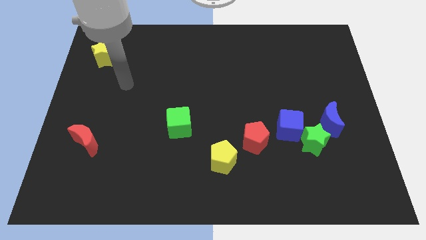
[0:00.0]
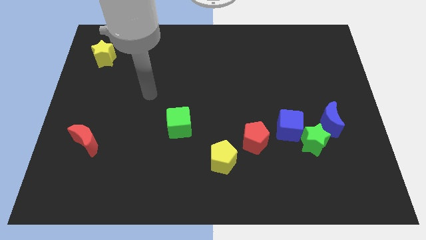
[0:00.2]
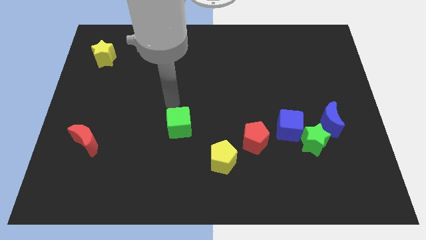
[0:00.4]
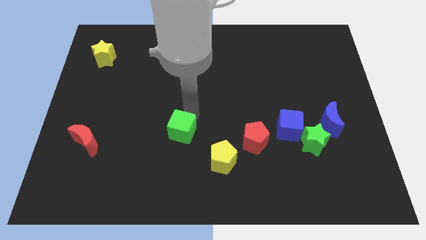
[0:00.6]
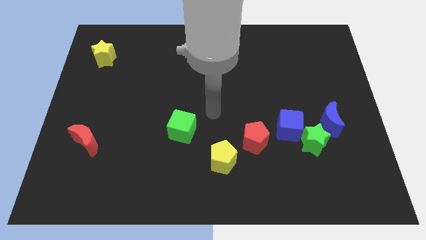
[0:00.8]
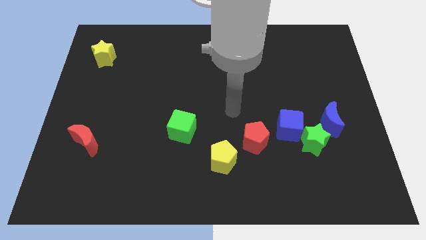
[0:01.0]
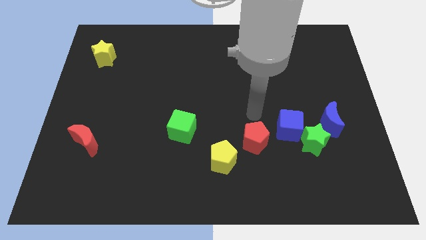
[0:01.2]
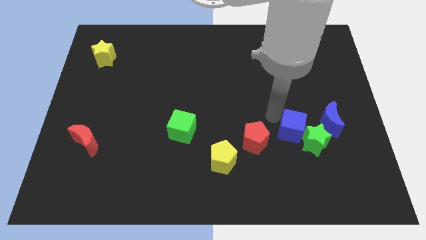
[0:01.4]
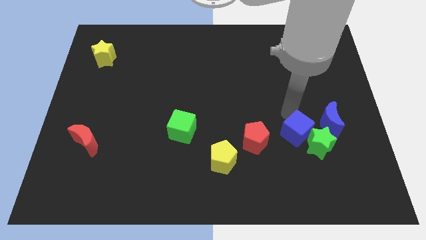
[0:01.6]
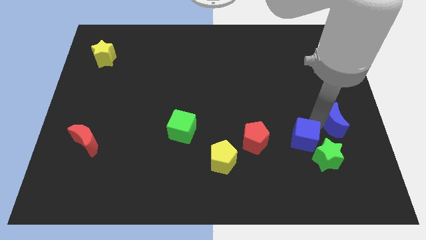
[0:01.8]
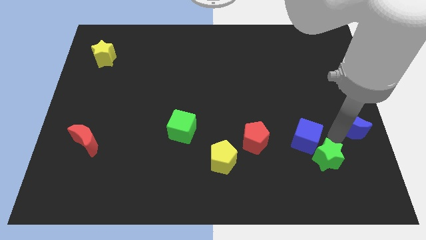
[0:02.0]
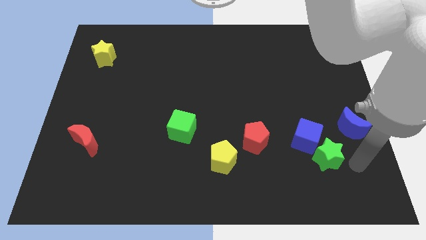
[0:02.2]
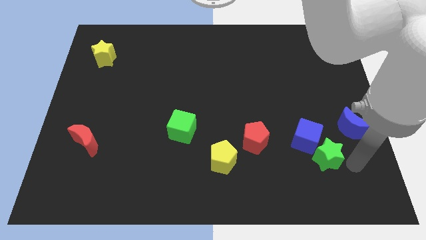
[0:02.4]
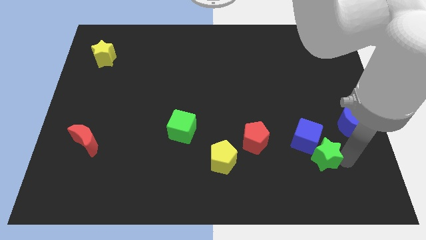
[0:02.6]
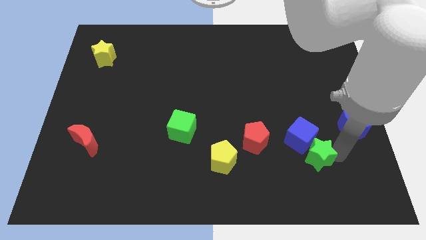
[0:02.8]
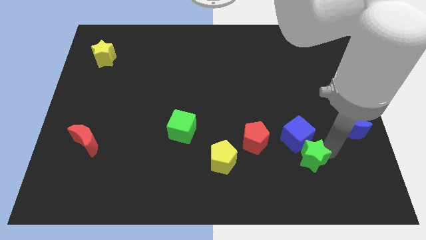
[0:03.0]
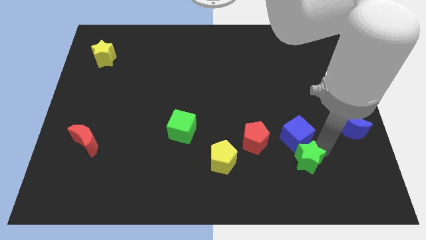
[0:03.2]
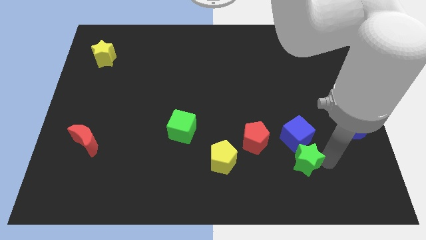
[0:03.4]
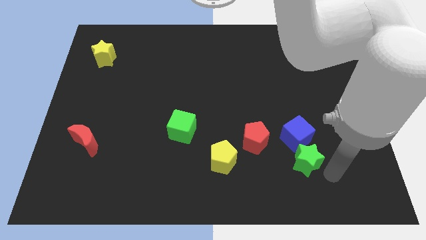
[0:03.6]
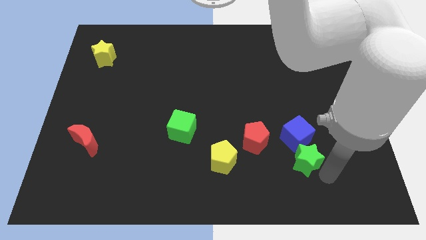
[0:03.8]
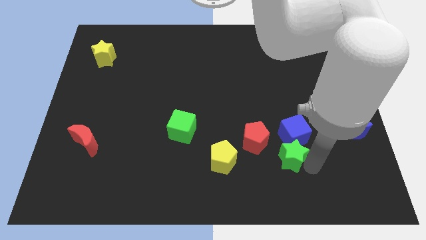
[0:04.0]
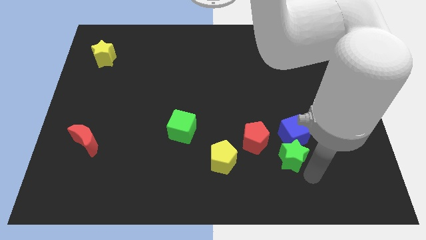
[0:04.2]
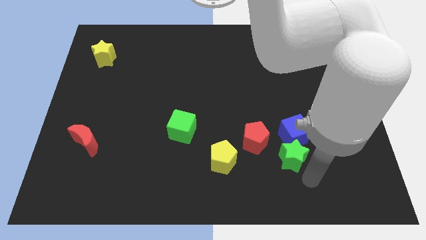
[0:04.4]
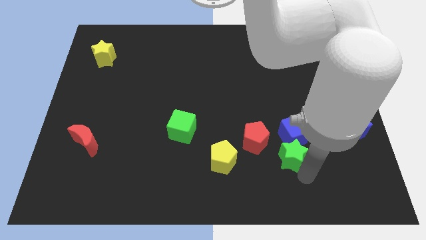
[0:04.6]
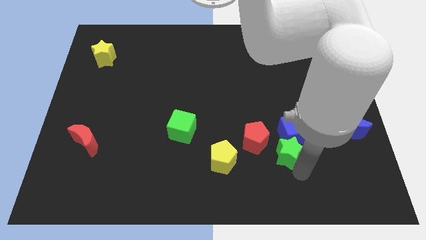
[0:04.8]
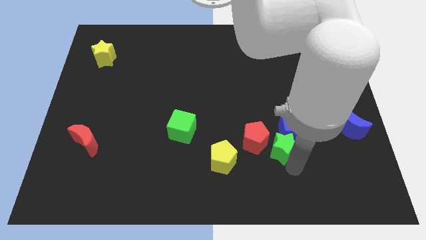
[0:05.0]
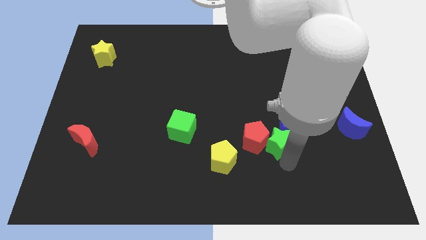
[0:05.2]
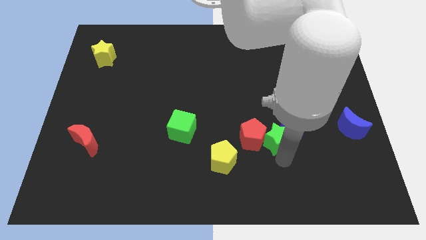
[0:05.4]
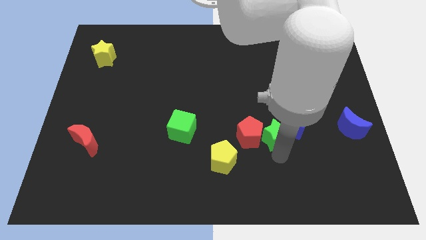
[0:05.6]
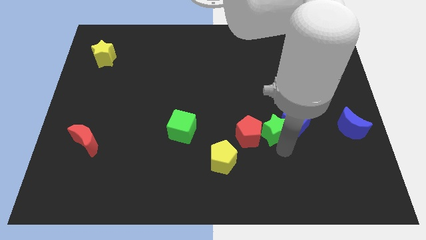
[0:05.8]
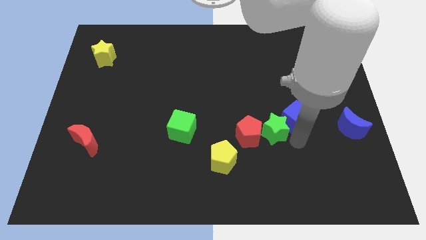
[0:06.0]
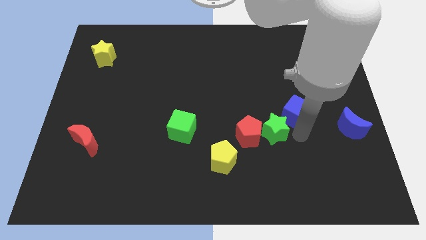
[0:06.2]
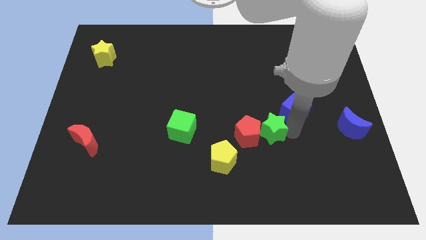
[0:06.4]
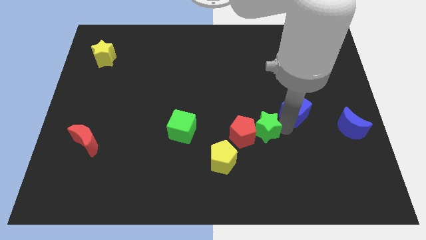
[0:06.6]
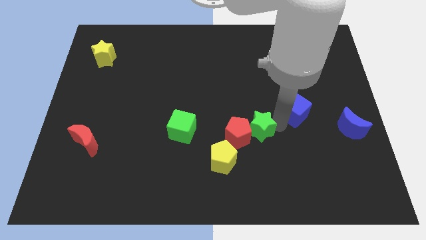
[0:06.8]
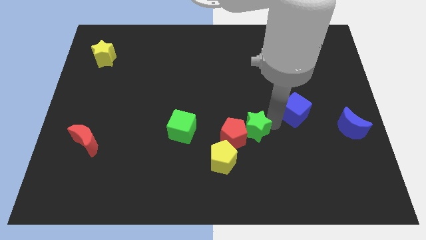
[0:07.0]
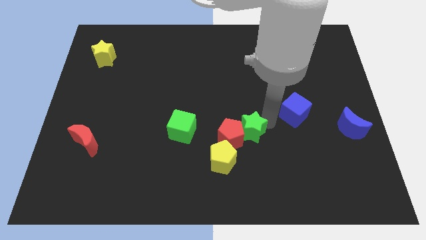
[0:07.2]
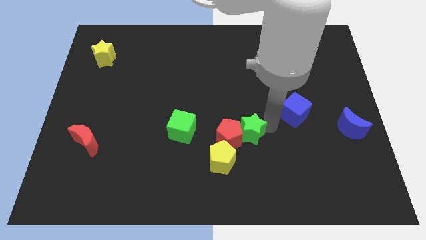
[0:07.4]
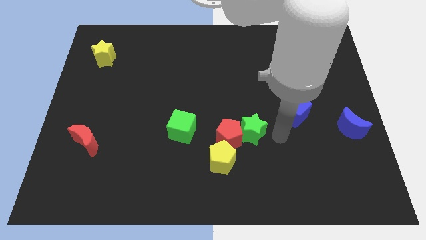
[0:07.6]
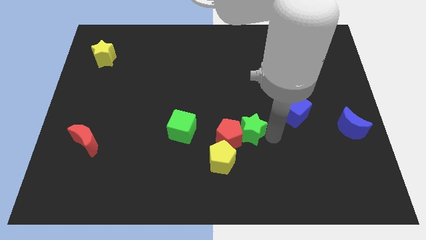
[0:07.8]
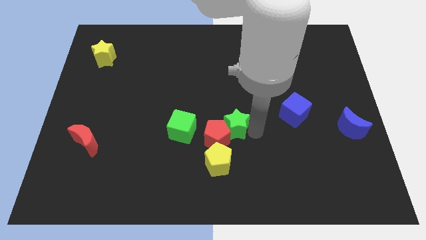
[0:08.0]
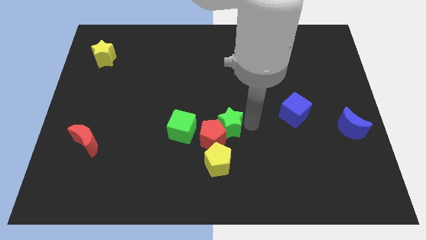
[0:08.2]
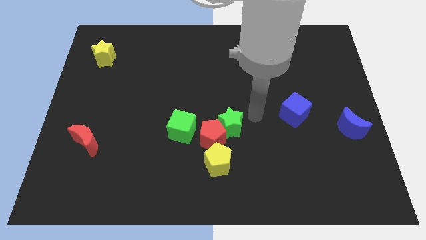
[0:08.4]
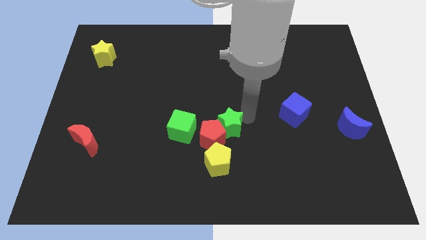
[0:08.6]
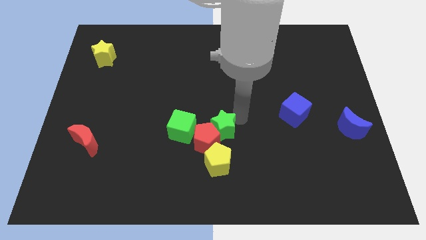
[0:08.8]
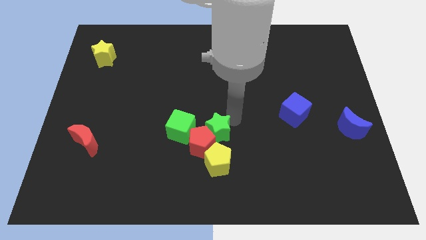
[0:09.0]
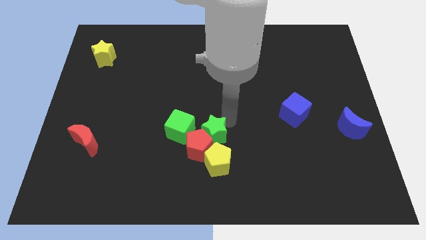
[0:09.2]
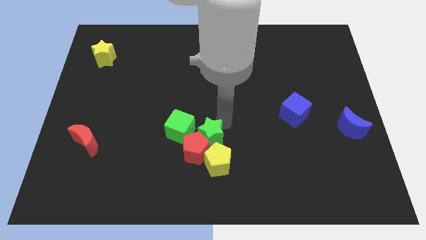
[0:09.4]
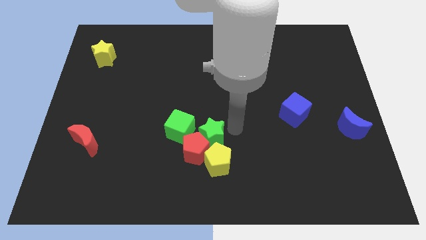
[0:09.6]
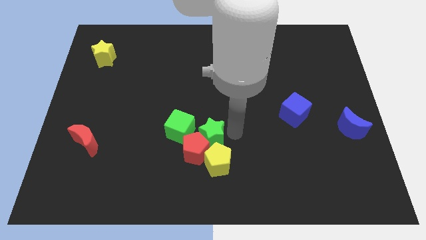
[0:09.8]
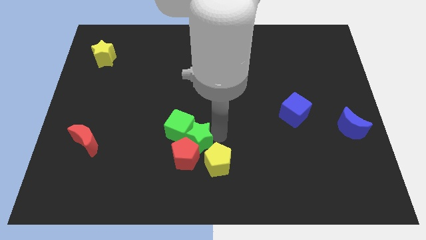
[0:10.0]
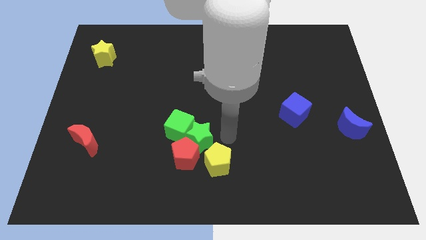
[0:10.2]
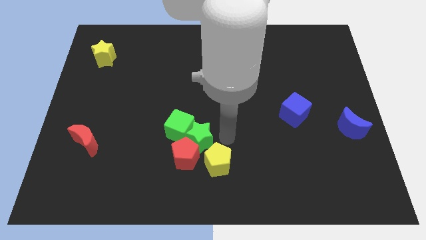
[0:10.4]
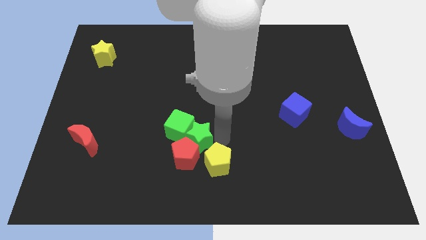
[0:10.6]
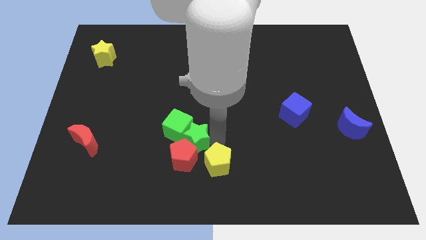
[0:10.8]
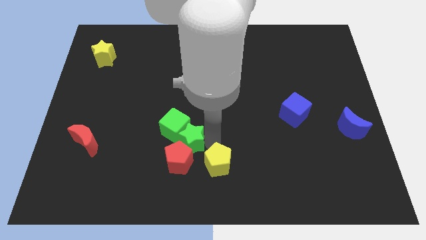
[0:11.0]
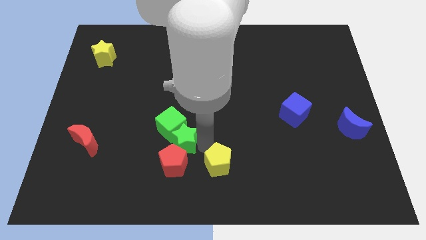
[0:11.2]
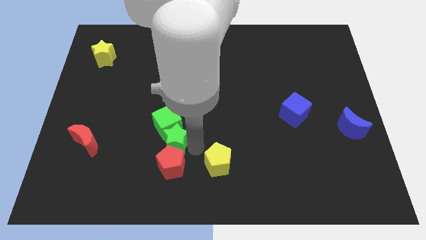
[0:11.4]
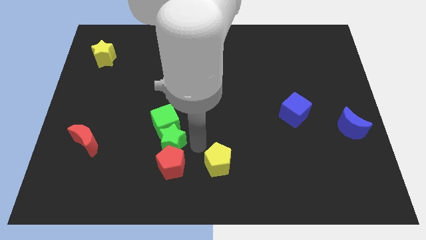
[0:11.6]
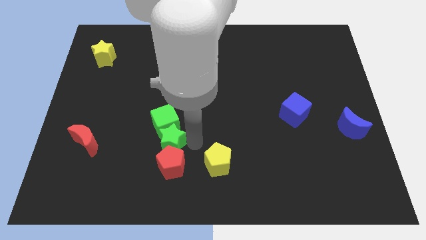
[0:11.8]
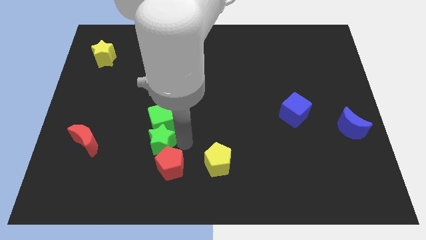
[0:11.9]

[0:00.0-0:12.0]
slide the green star right of the red moon

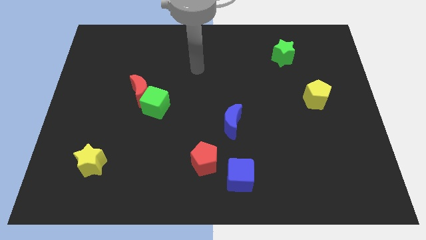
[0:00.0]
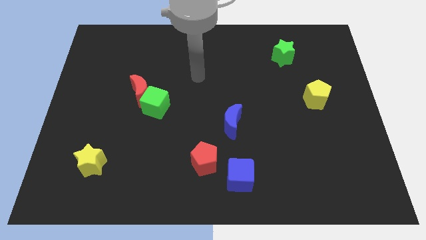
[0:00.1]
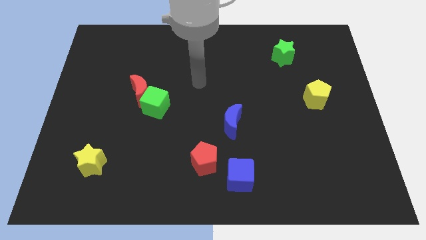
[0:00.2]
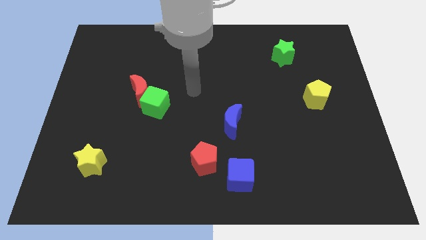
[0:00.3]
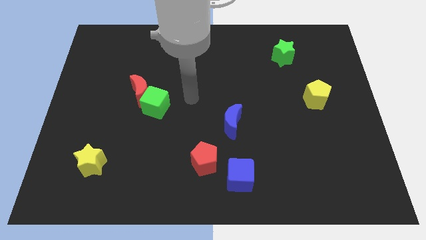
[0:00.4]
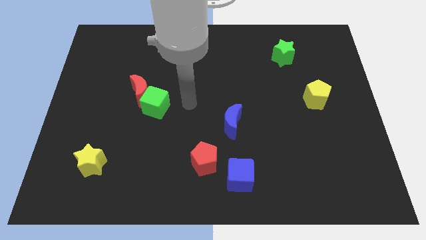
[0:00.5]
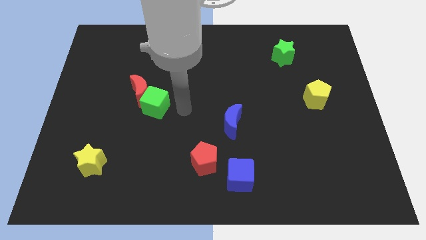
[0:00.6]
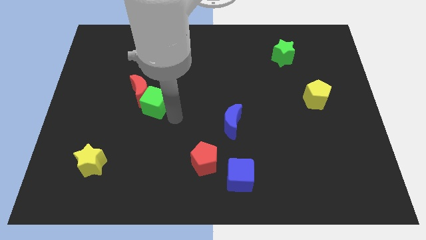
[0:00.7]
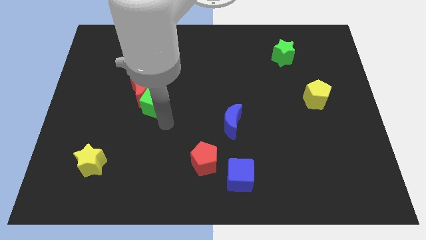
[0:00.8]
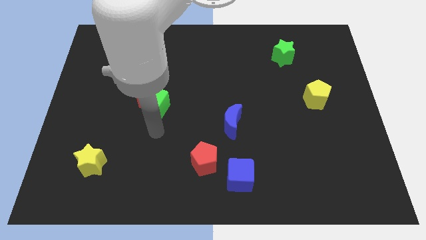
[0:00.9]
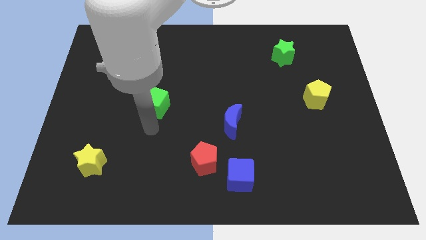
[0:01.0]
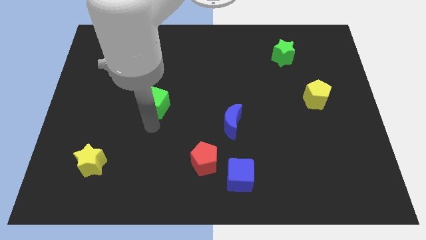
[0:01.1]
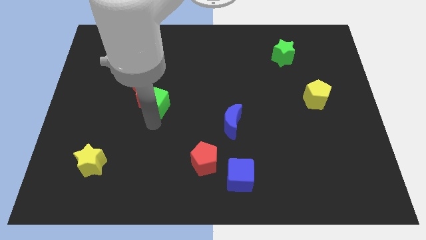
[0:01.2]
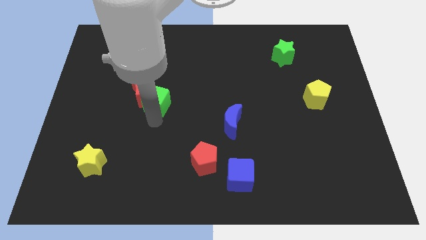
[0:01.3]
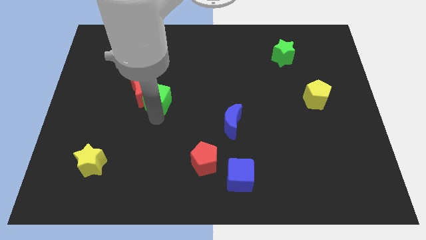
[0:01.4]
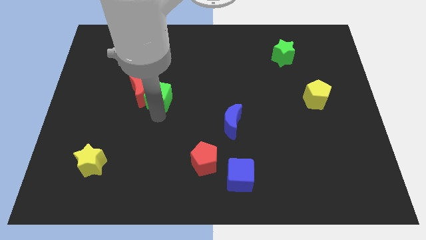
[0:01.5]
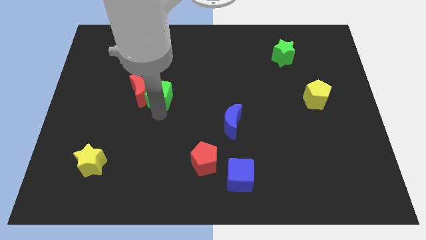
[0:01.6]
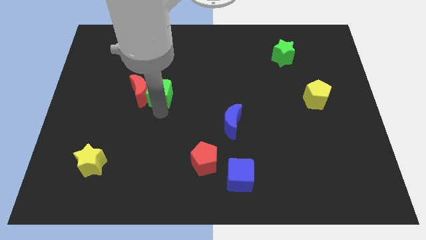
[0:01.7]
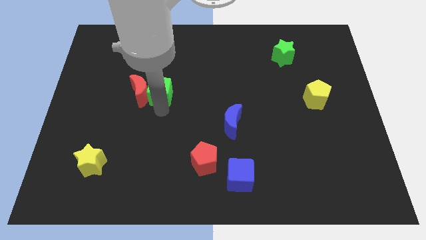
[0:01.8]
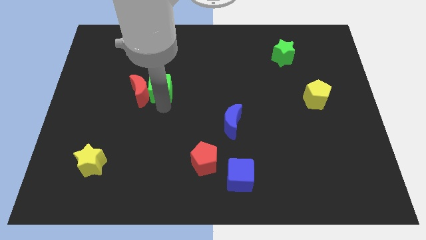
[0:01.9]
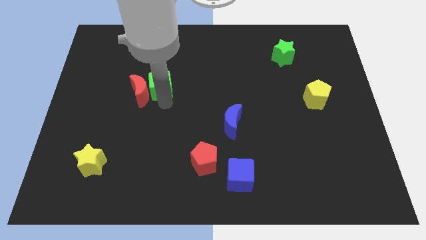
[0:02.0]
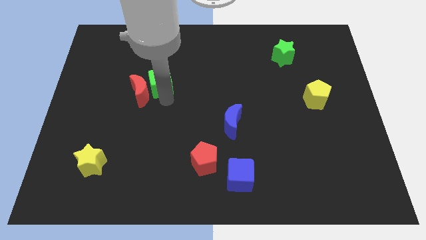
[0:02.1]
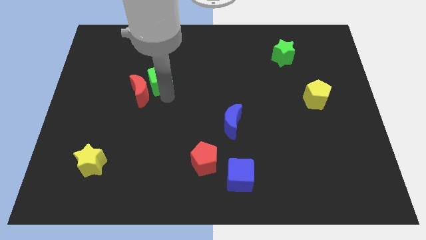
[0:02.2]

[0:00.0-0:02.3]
put the green cube above the red moon
